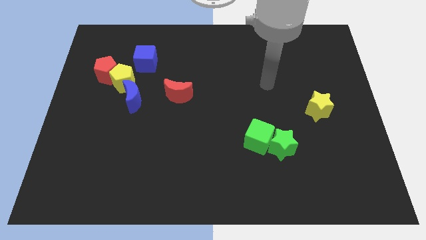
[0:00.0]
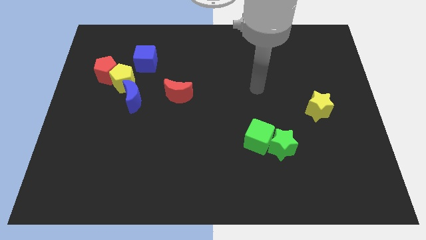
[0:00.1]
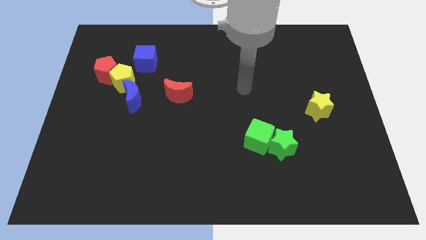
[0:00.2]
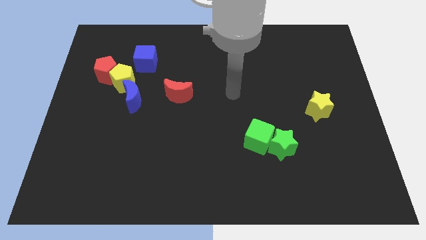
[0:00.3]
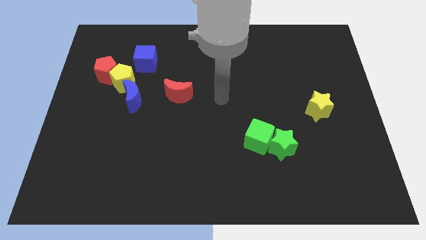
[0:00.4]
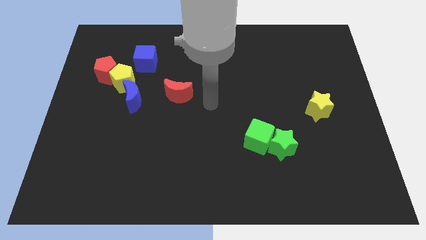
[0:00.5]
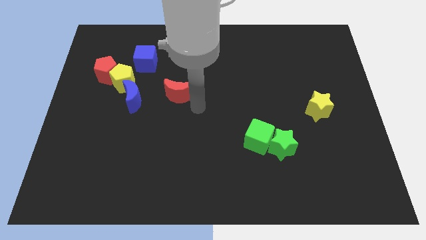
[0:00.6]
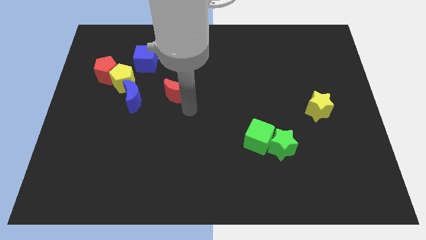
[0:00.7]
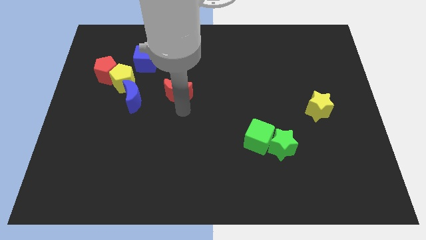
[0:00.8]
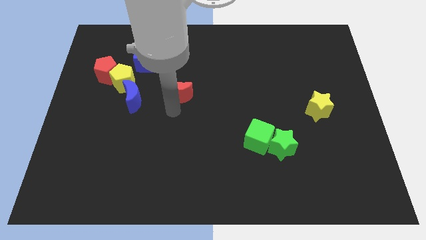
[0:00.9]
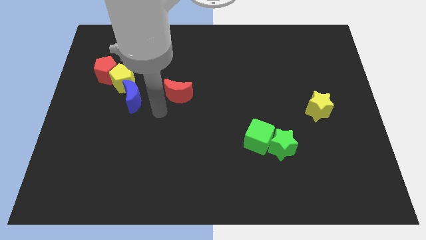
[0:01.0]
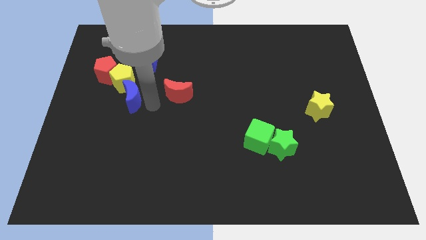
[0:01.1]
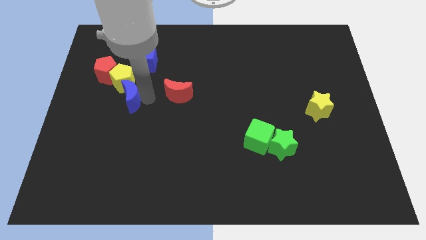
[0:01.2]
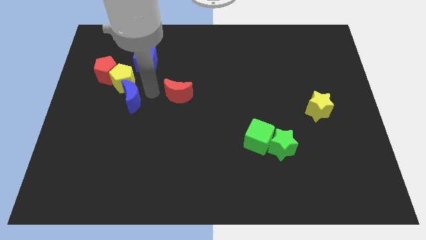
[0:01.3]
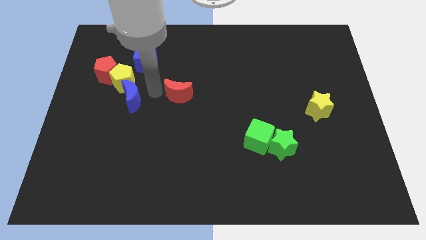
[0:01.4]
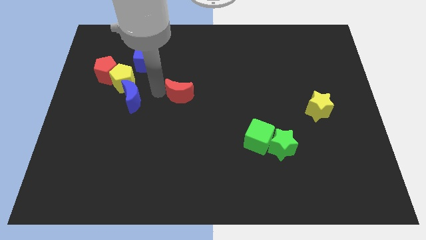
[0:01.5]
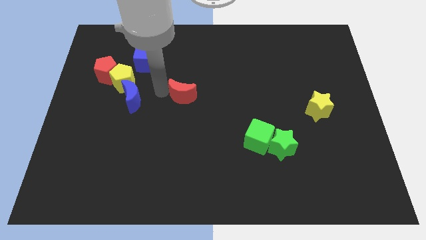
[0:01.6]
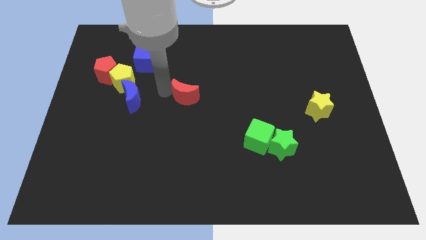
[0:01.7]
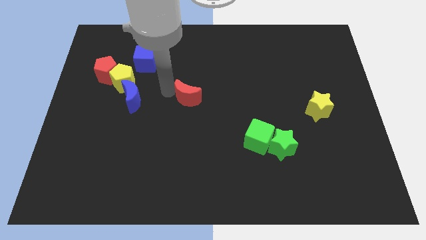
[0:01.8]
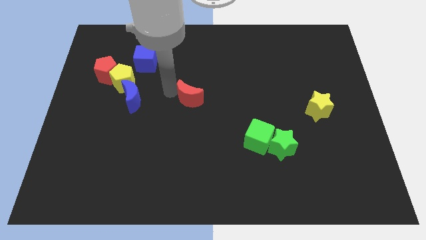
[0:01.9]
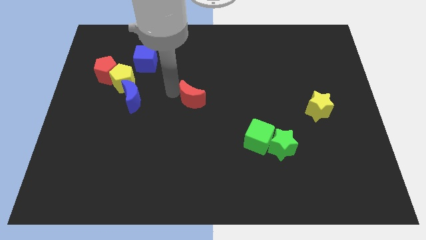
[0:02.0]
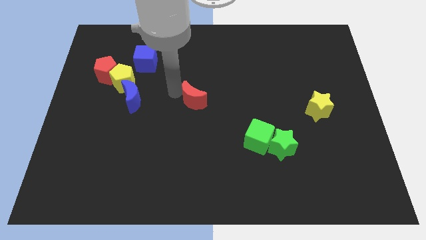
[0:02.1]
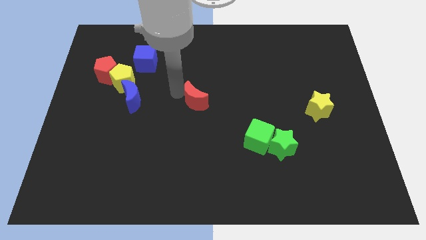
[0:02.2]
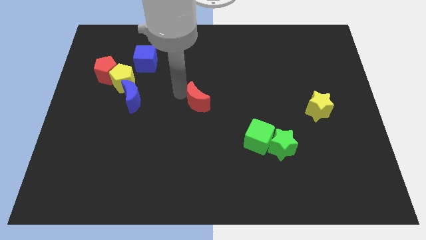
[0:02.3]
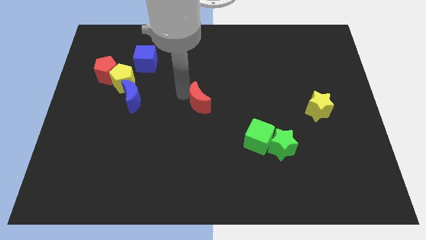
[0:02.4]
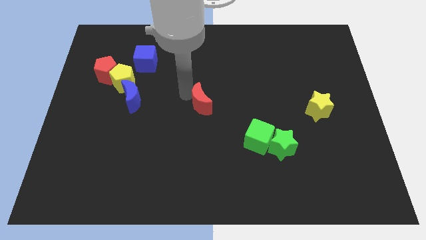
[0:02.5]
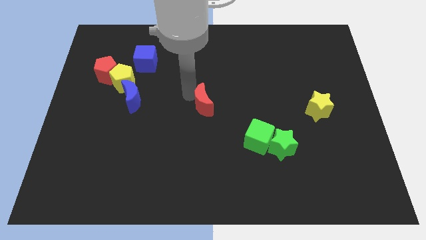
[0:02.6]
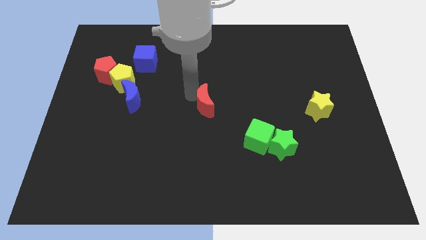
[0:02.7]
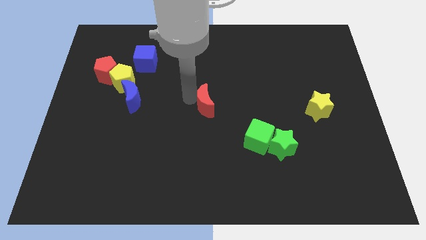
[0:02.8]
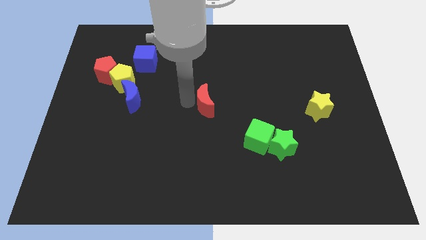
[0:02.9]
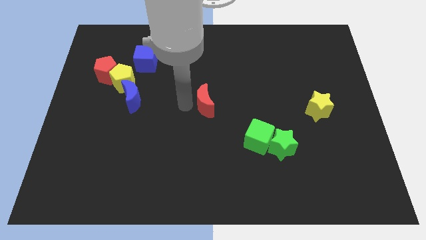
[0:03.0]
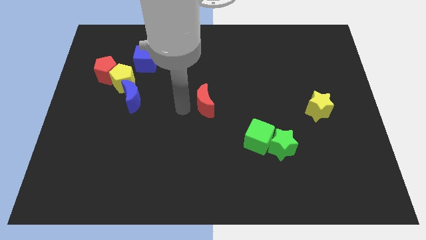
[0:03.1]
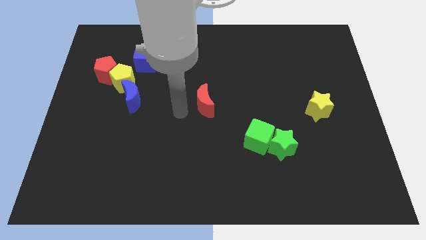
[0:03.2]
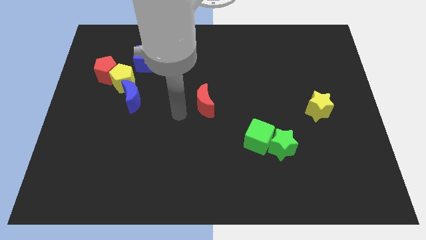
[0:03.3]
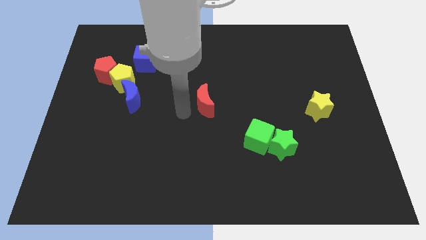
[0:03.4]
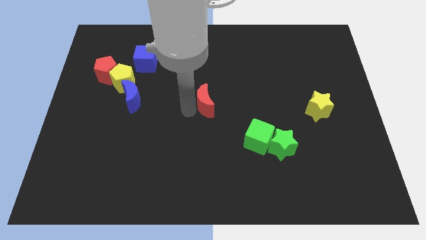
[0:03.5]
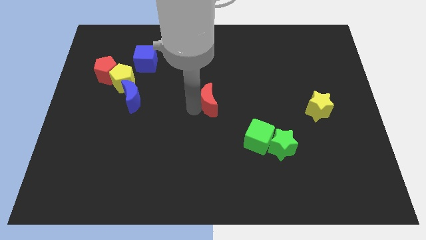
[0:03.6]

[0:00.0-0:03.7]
push the red moon right a little bit

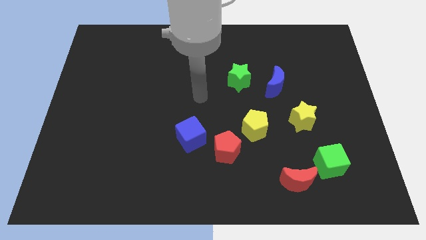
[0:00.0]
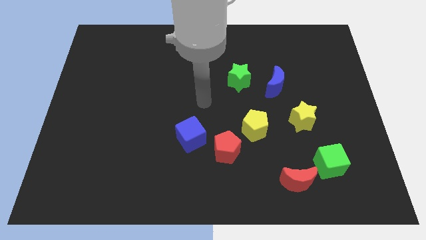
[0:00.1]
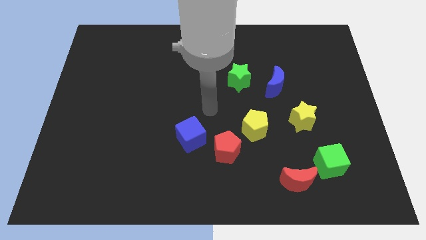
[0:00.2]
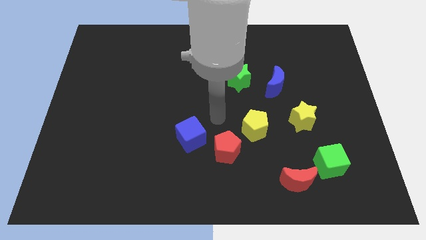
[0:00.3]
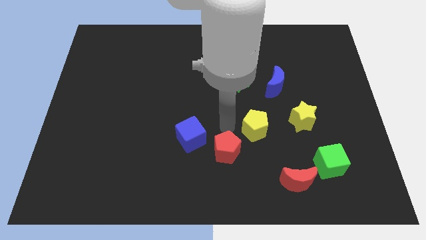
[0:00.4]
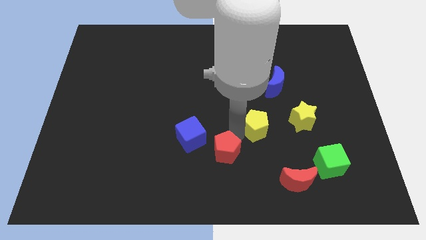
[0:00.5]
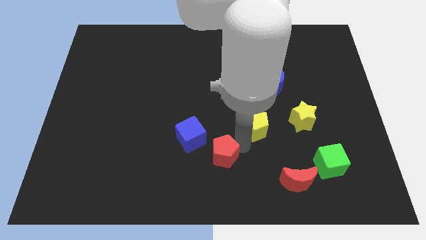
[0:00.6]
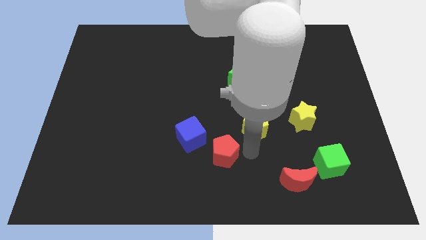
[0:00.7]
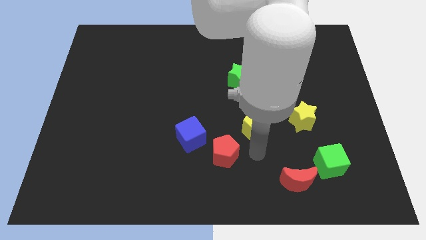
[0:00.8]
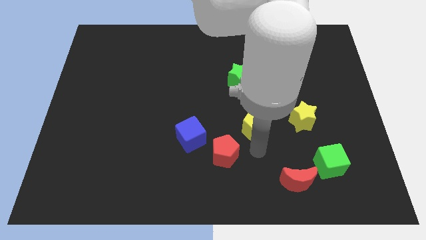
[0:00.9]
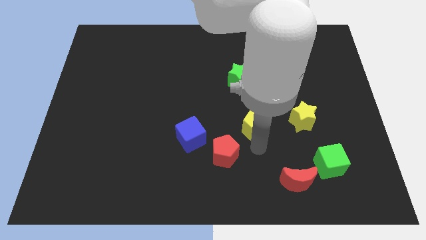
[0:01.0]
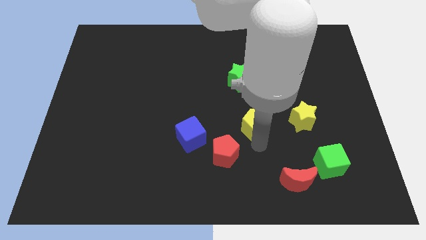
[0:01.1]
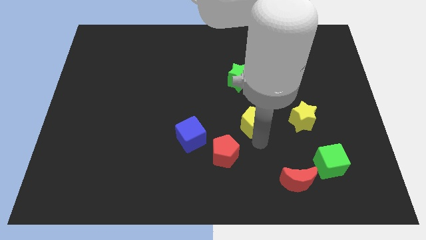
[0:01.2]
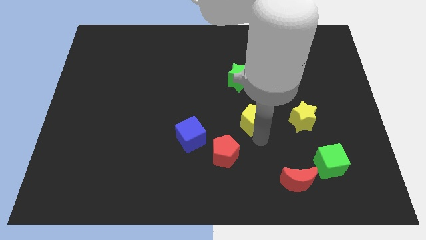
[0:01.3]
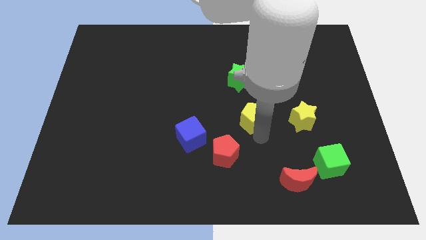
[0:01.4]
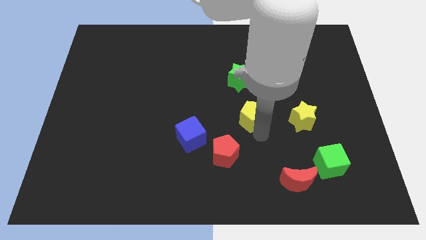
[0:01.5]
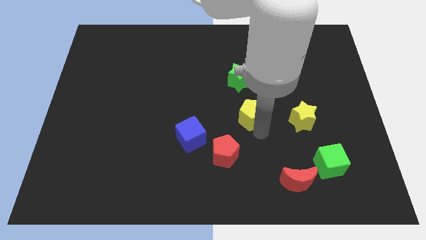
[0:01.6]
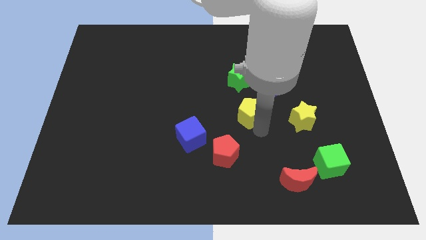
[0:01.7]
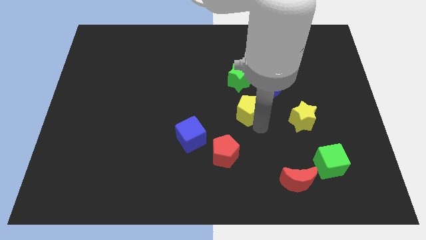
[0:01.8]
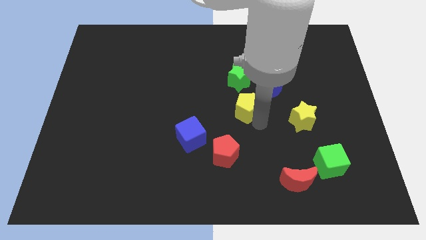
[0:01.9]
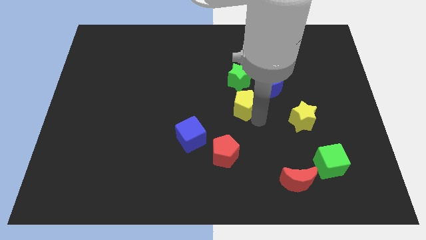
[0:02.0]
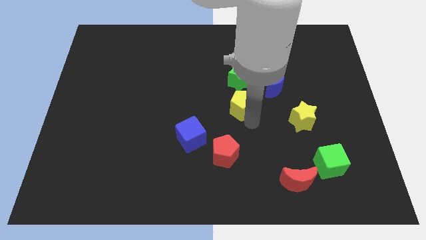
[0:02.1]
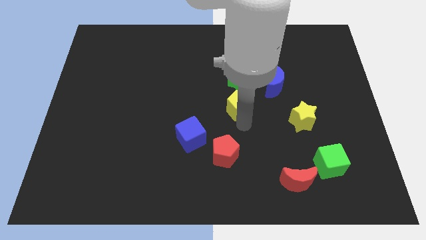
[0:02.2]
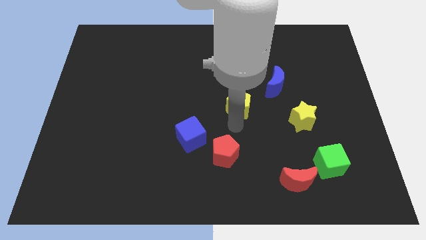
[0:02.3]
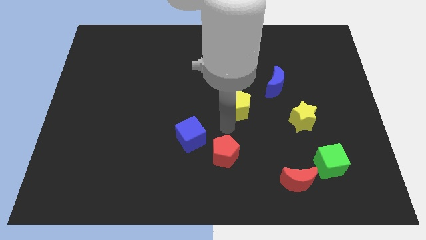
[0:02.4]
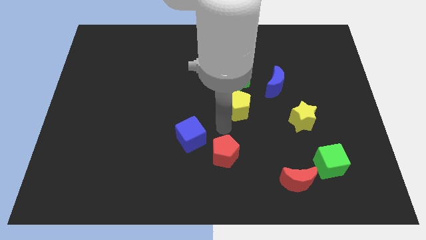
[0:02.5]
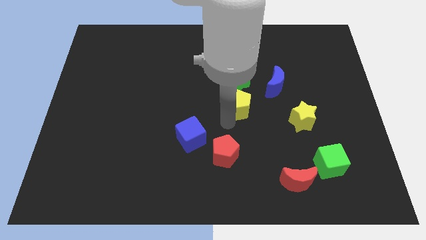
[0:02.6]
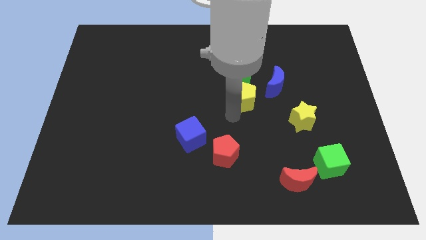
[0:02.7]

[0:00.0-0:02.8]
slightly push the yellow pentagon upwards

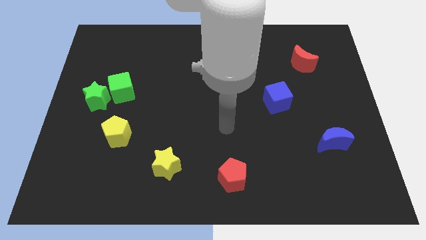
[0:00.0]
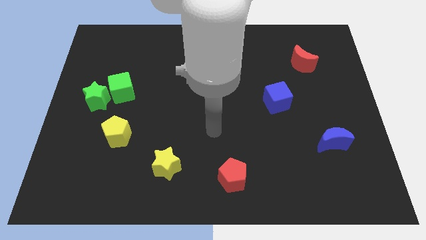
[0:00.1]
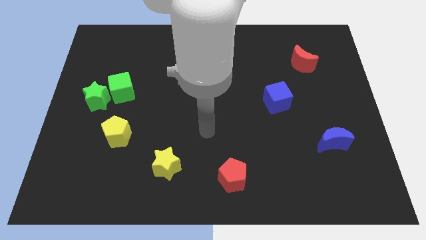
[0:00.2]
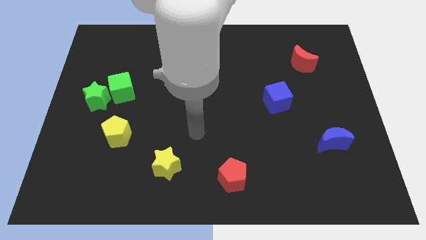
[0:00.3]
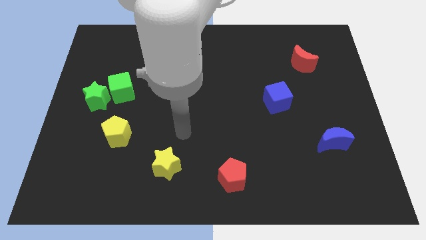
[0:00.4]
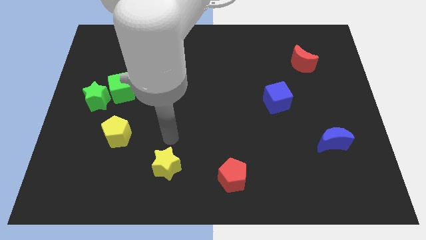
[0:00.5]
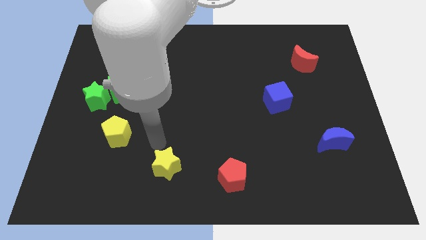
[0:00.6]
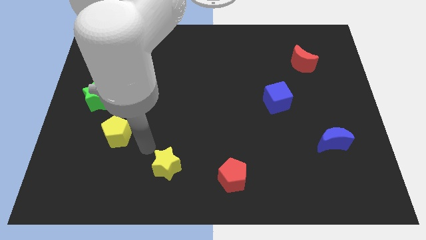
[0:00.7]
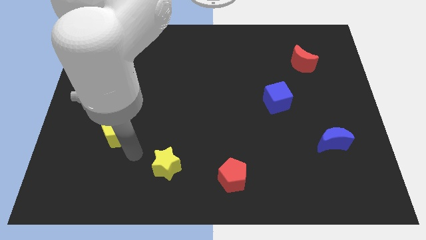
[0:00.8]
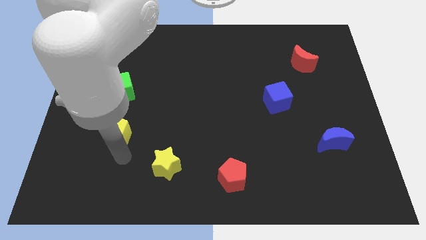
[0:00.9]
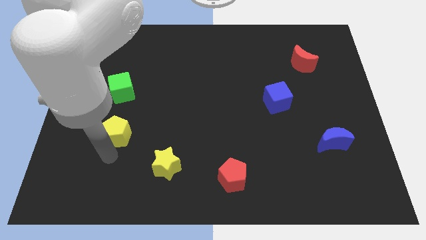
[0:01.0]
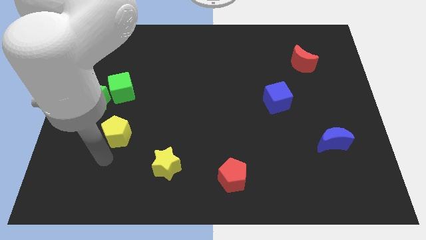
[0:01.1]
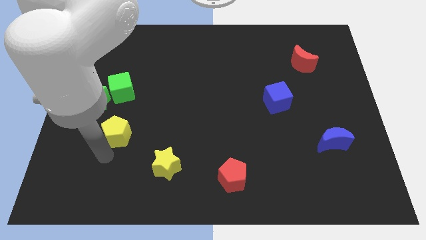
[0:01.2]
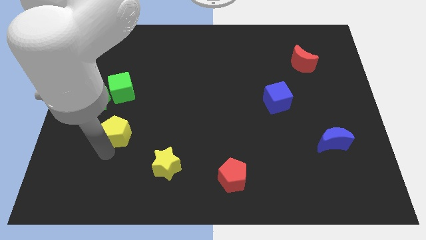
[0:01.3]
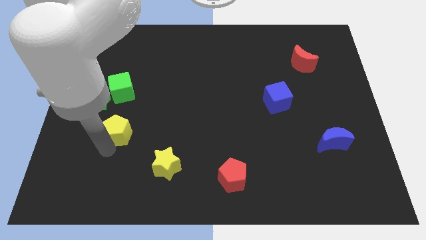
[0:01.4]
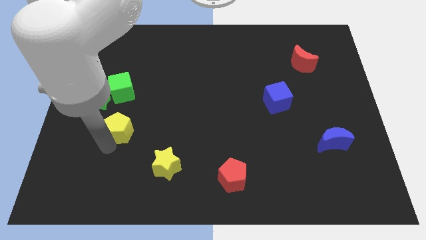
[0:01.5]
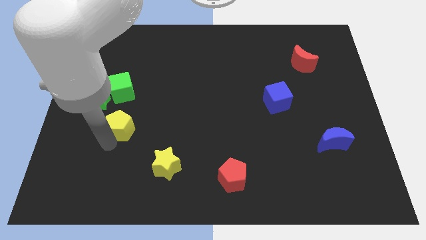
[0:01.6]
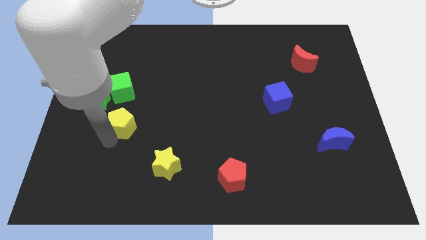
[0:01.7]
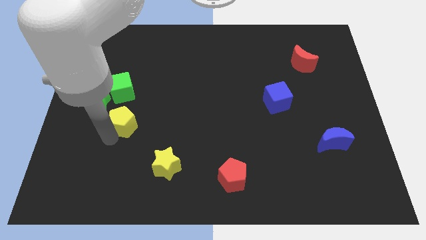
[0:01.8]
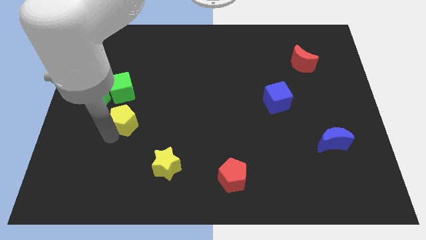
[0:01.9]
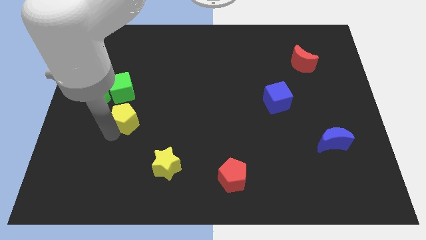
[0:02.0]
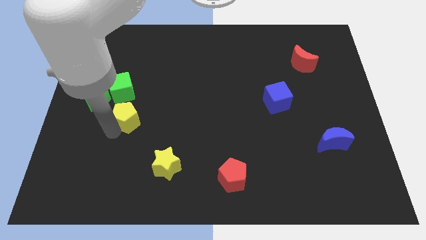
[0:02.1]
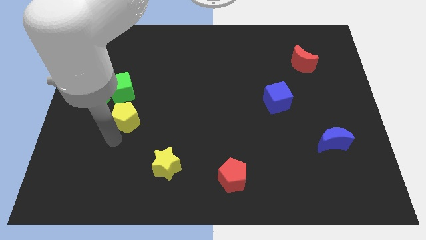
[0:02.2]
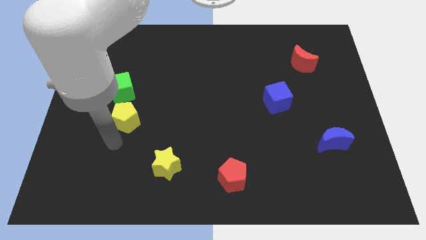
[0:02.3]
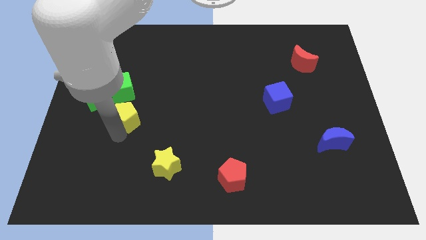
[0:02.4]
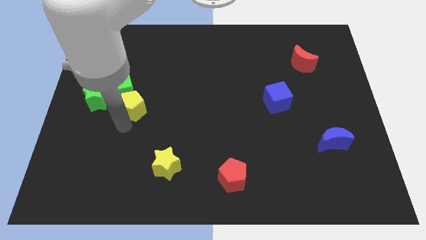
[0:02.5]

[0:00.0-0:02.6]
move the yellow pentagon up a little bit
